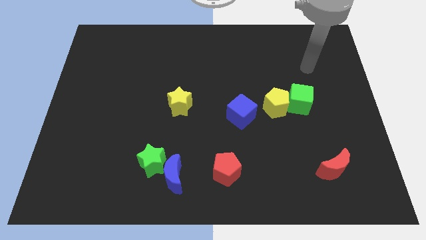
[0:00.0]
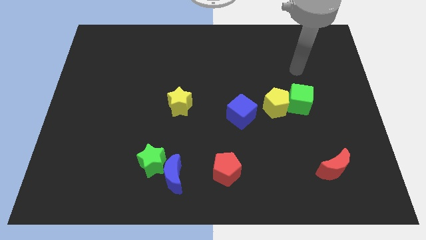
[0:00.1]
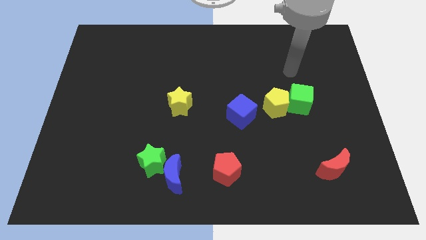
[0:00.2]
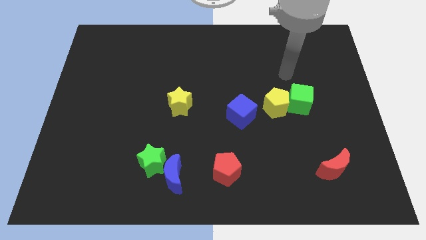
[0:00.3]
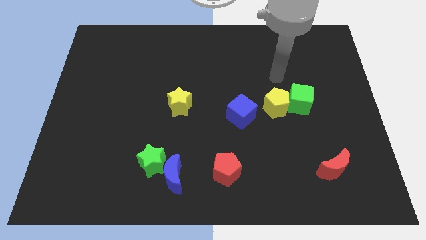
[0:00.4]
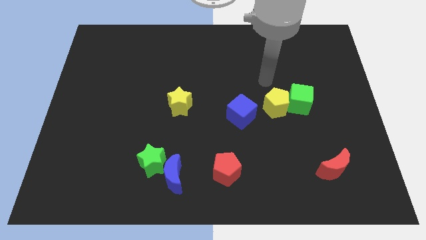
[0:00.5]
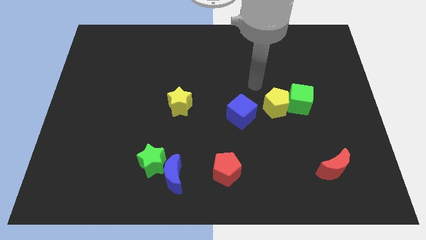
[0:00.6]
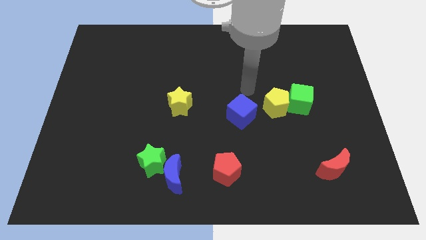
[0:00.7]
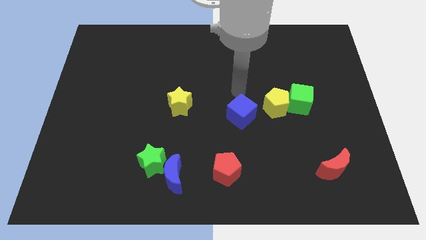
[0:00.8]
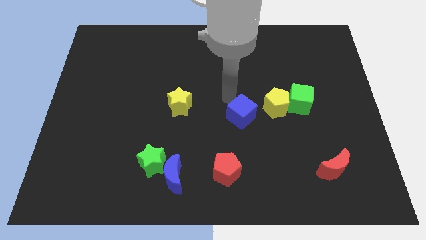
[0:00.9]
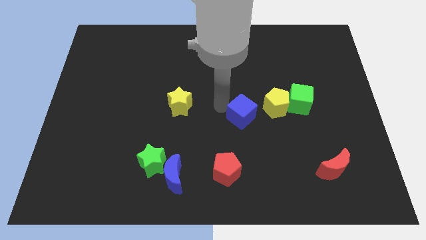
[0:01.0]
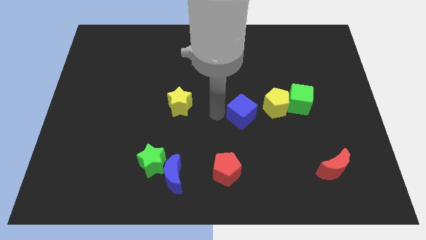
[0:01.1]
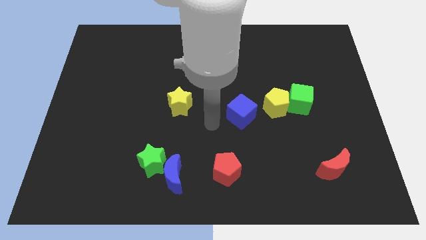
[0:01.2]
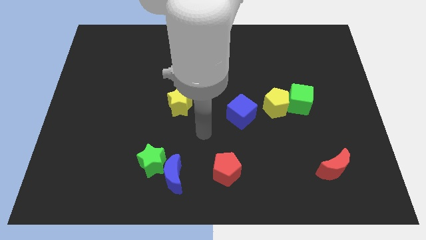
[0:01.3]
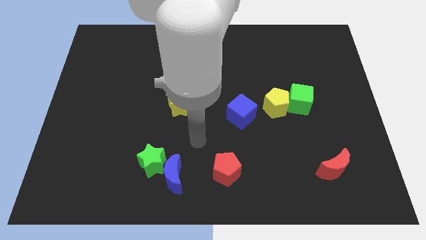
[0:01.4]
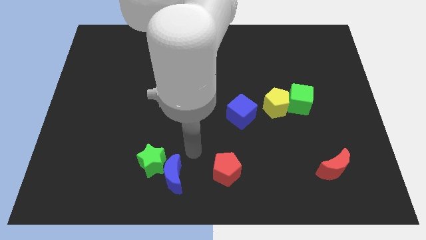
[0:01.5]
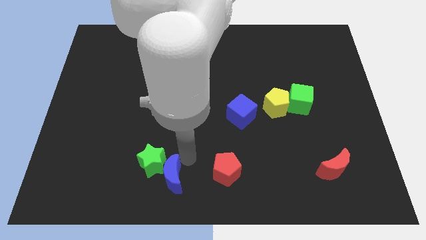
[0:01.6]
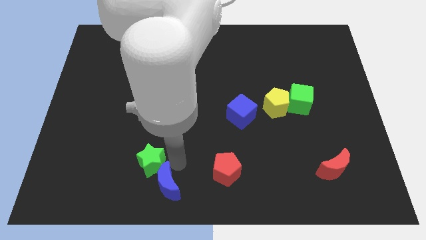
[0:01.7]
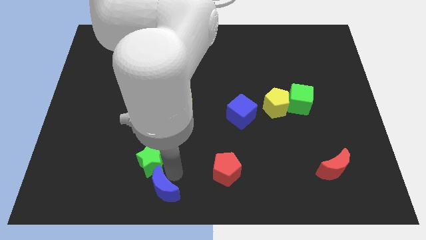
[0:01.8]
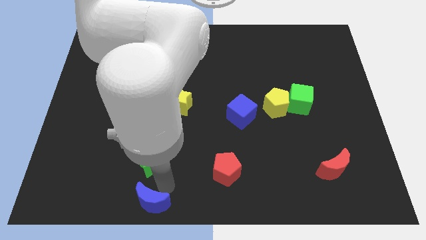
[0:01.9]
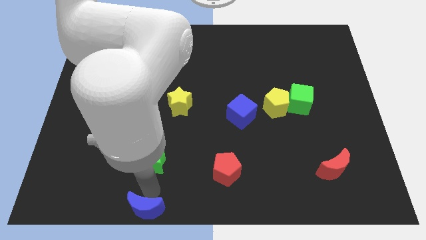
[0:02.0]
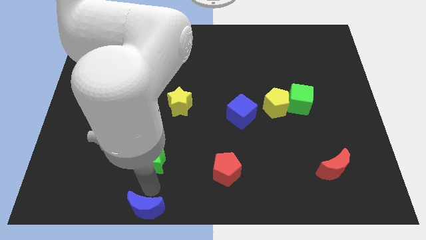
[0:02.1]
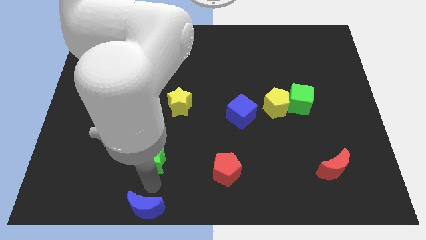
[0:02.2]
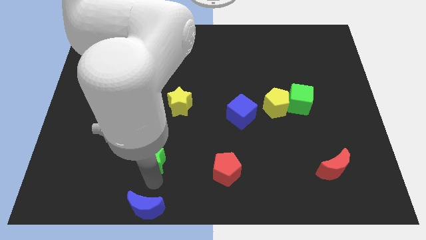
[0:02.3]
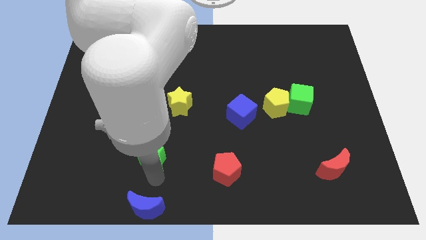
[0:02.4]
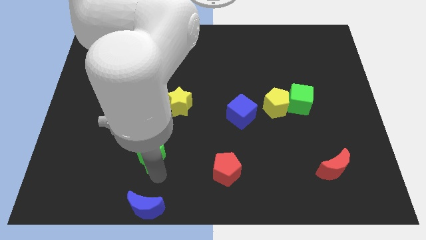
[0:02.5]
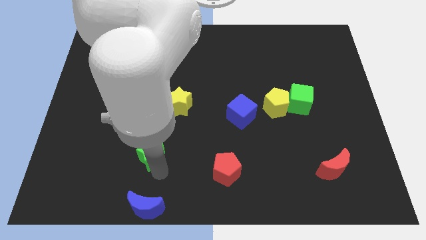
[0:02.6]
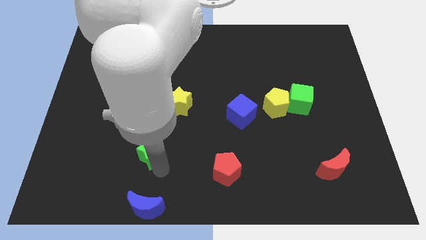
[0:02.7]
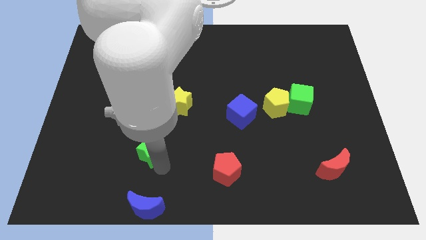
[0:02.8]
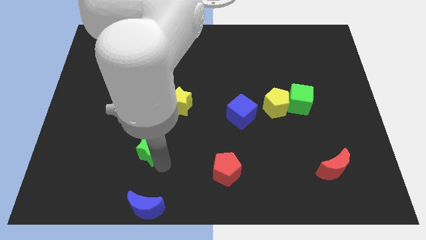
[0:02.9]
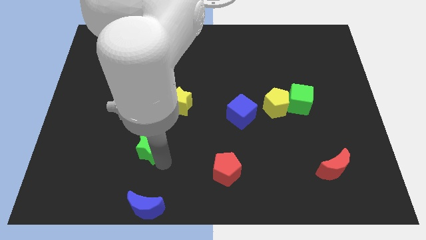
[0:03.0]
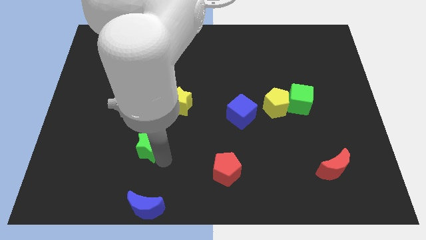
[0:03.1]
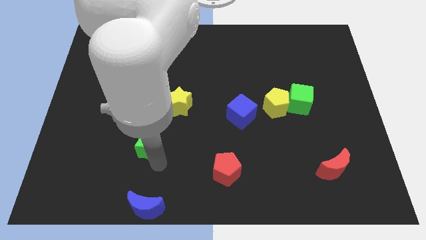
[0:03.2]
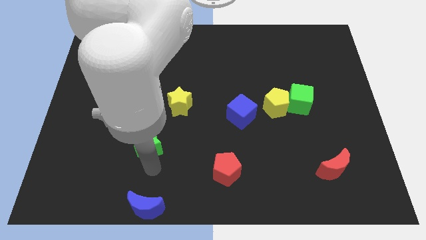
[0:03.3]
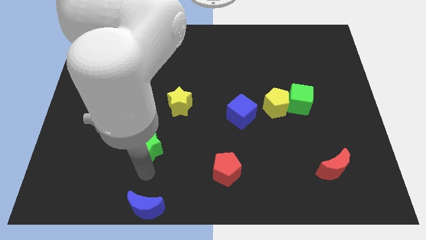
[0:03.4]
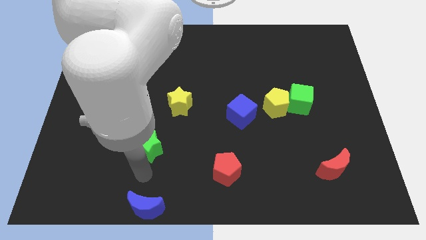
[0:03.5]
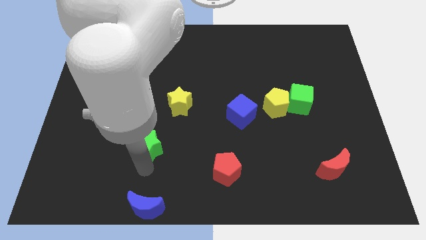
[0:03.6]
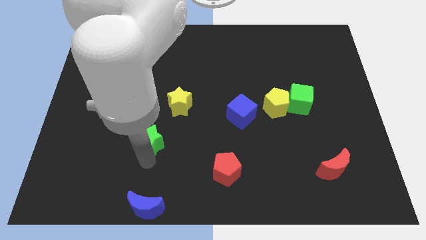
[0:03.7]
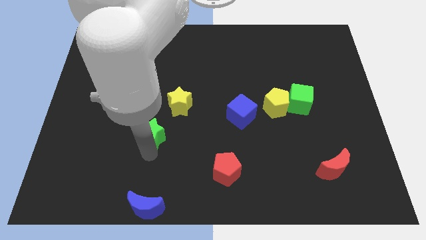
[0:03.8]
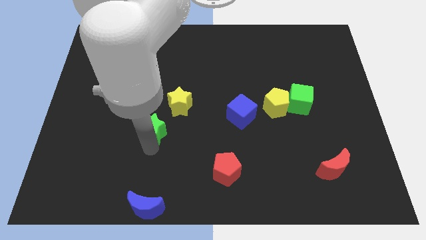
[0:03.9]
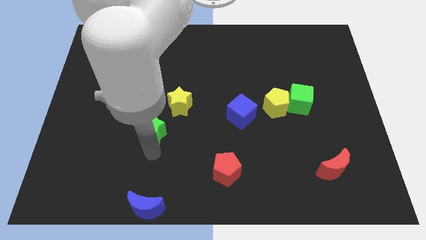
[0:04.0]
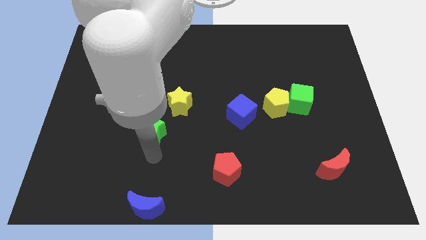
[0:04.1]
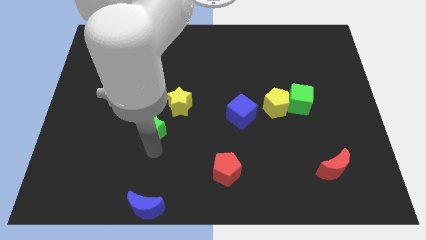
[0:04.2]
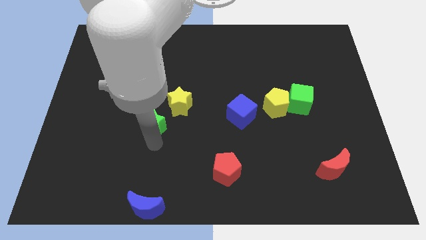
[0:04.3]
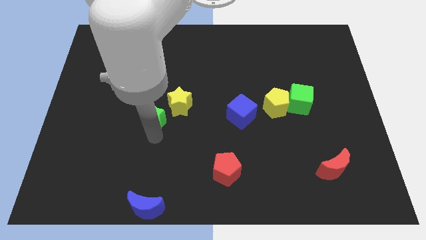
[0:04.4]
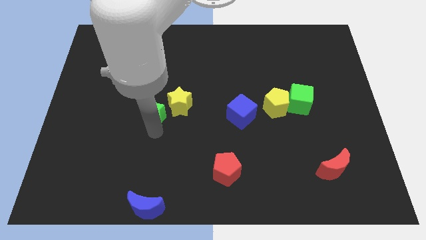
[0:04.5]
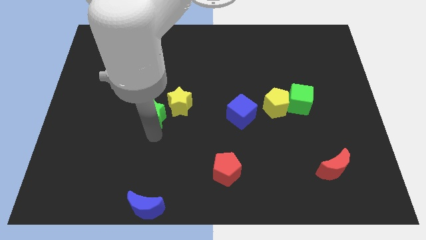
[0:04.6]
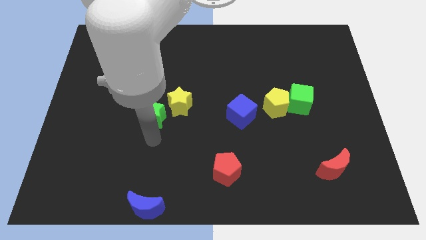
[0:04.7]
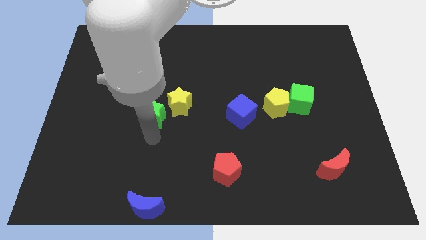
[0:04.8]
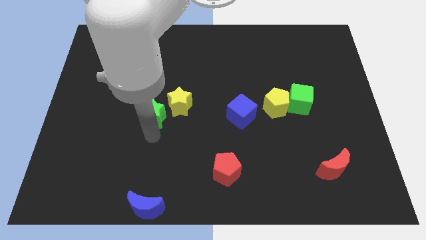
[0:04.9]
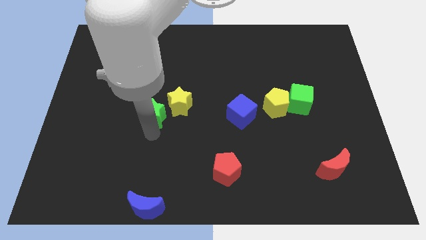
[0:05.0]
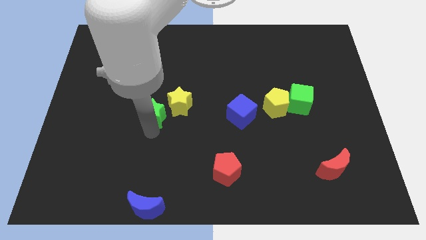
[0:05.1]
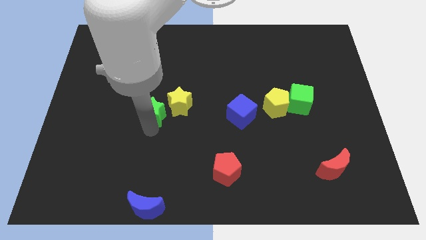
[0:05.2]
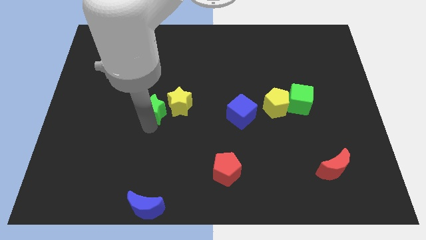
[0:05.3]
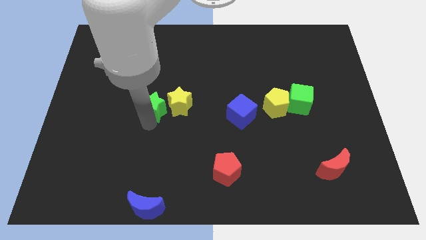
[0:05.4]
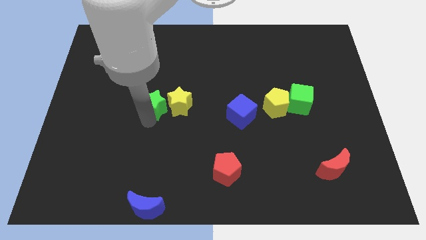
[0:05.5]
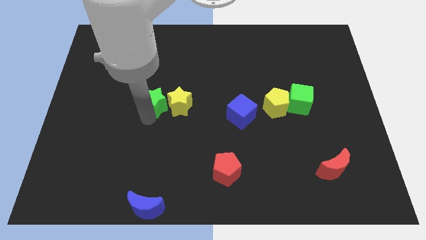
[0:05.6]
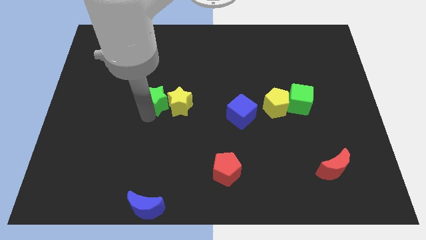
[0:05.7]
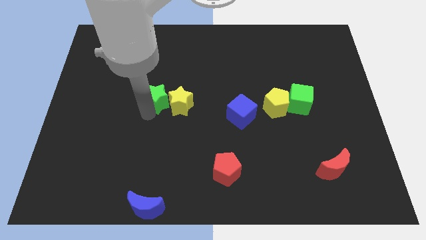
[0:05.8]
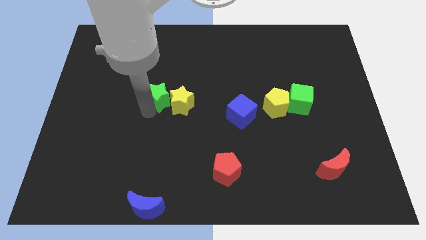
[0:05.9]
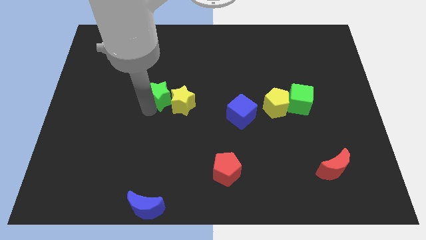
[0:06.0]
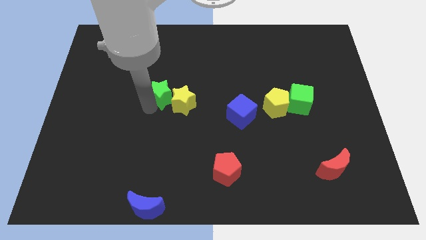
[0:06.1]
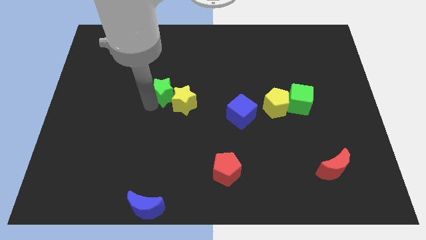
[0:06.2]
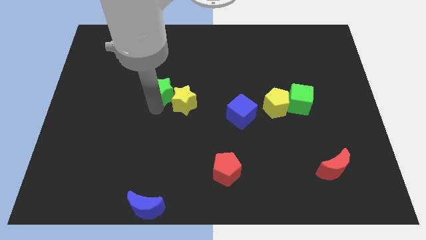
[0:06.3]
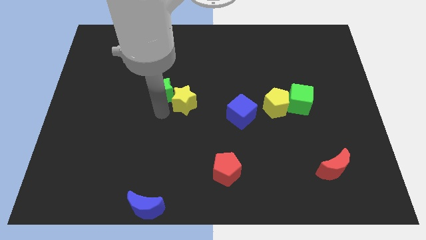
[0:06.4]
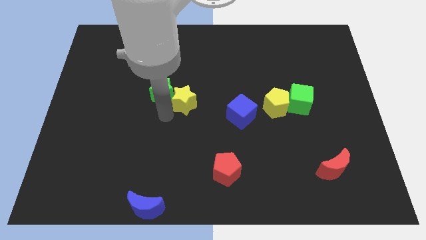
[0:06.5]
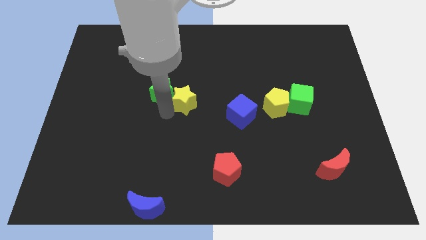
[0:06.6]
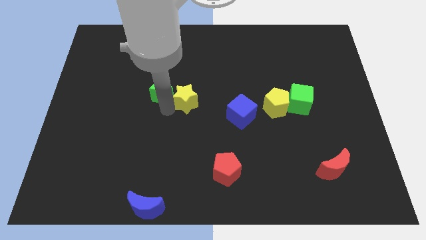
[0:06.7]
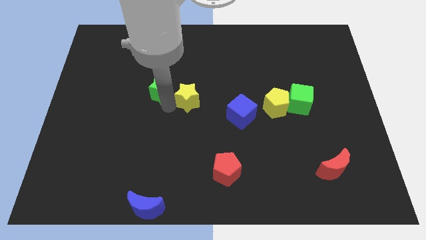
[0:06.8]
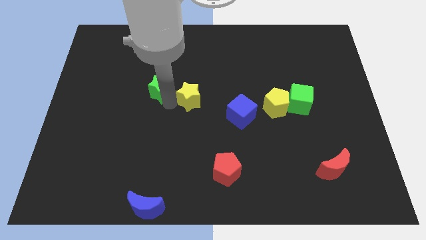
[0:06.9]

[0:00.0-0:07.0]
move the green star upwards

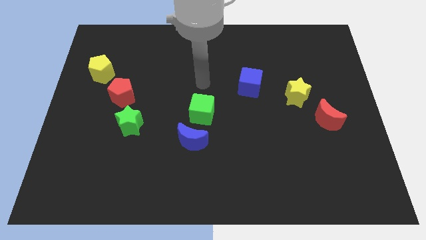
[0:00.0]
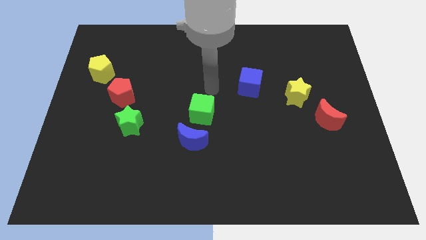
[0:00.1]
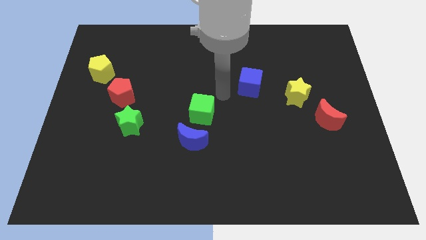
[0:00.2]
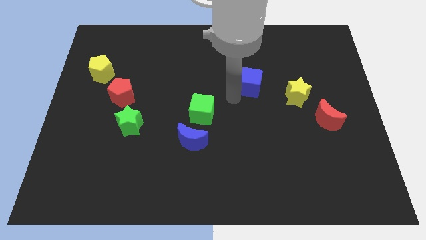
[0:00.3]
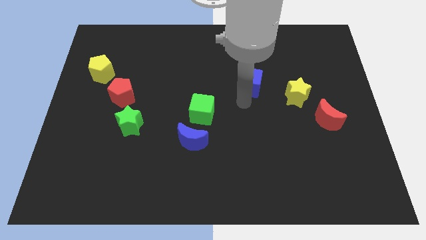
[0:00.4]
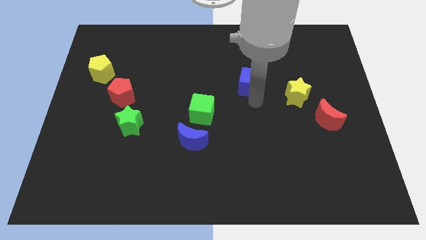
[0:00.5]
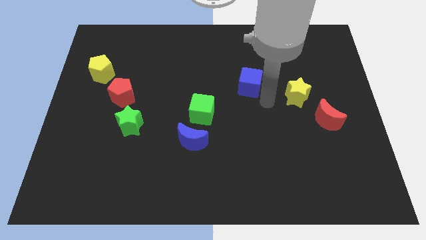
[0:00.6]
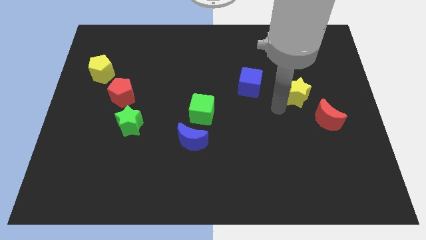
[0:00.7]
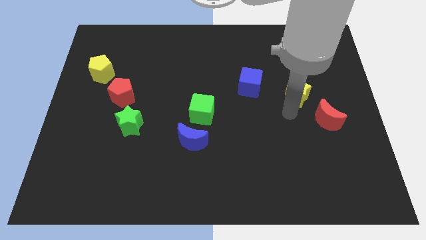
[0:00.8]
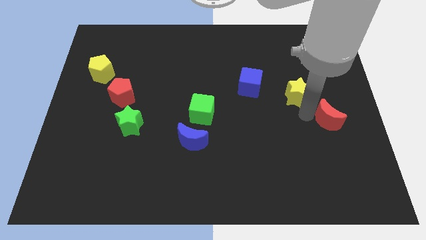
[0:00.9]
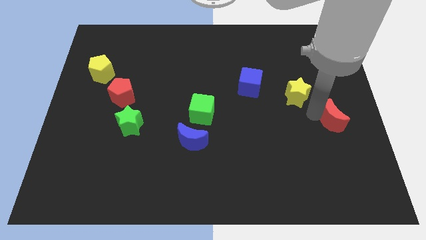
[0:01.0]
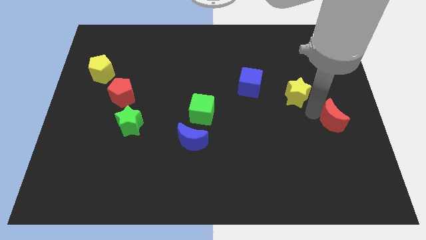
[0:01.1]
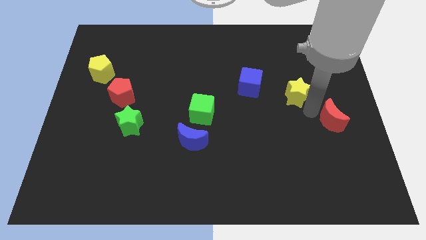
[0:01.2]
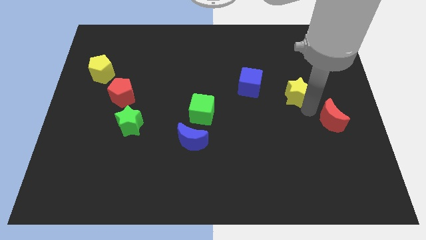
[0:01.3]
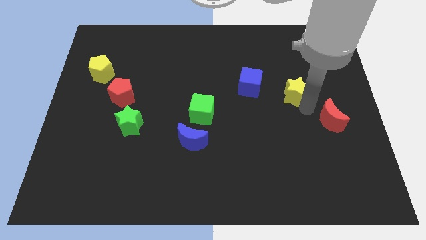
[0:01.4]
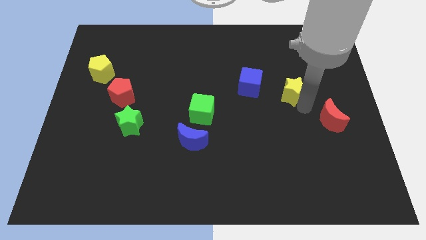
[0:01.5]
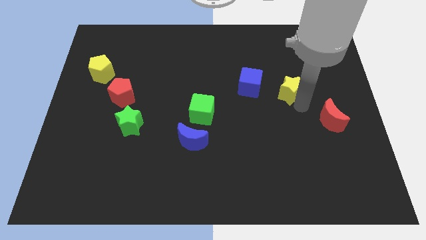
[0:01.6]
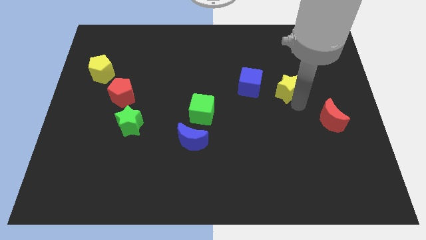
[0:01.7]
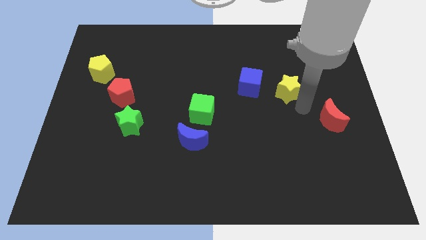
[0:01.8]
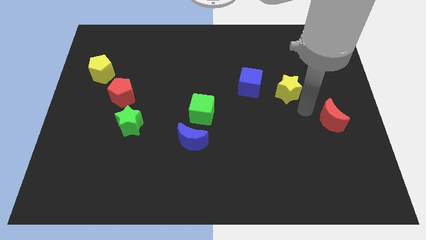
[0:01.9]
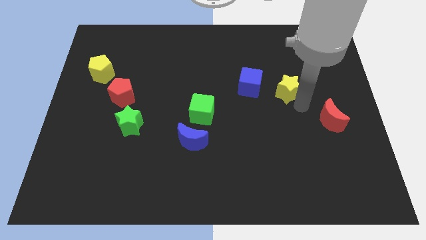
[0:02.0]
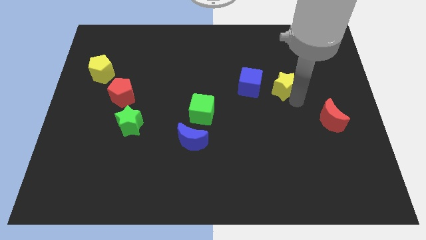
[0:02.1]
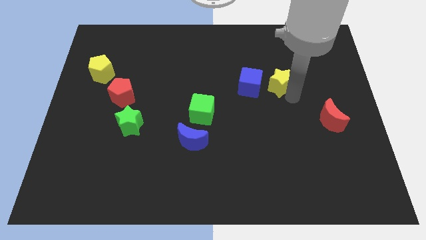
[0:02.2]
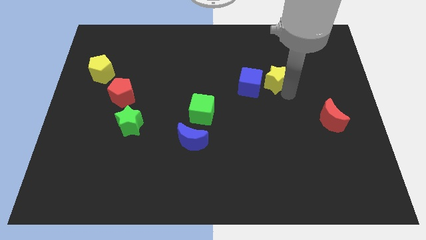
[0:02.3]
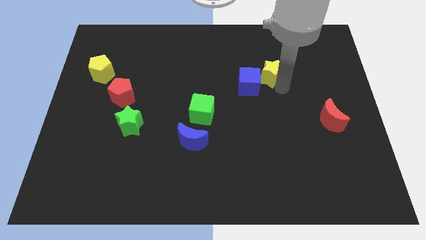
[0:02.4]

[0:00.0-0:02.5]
move the yellow star a little upwards and then left
